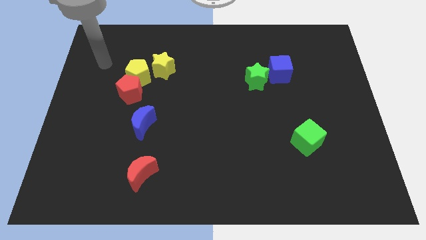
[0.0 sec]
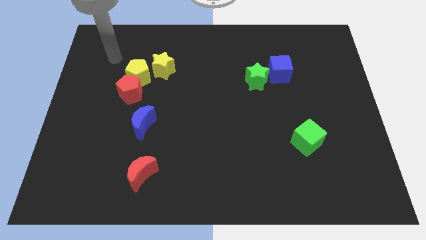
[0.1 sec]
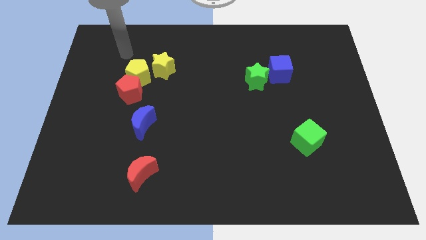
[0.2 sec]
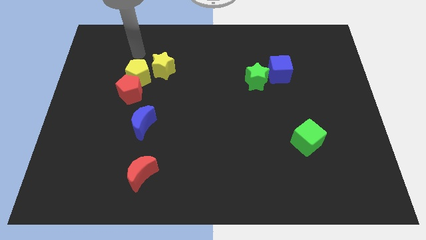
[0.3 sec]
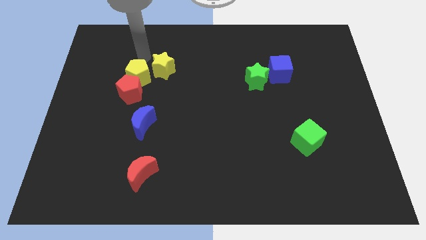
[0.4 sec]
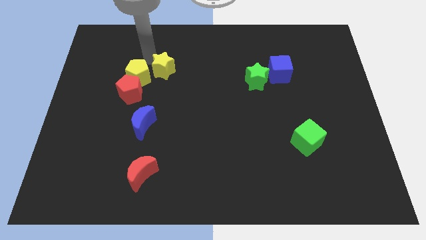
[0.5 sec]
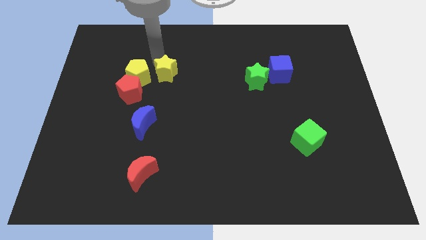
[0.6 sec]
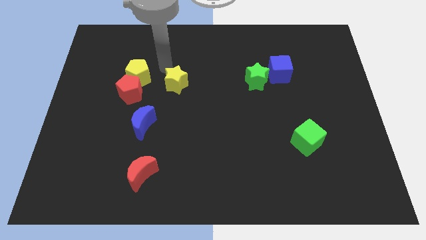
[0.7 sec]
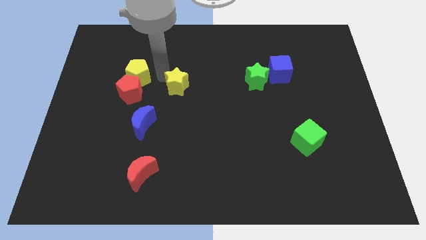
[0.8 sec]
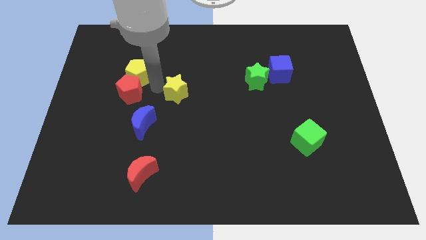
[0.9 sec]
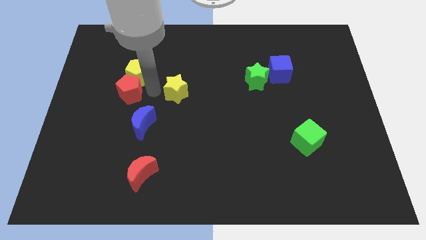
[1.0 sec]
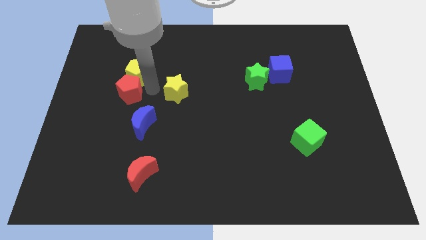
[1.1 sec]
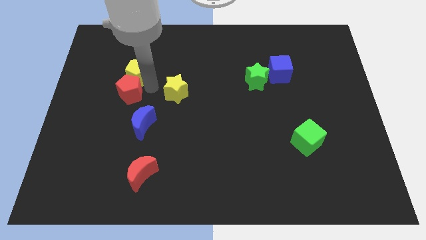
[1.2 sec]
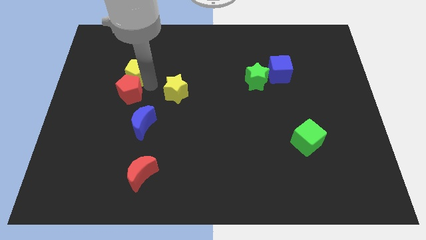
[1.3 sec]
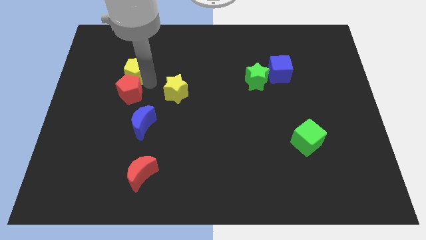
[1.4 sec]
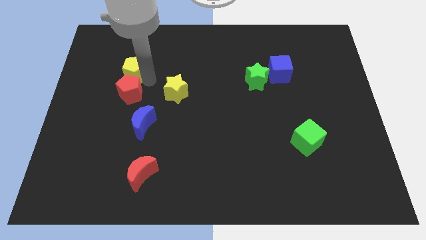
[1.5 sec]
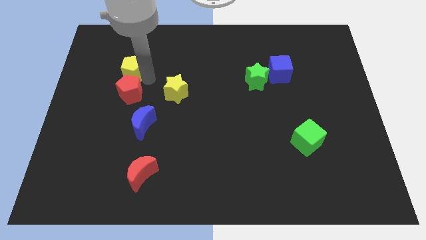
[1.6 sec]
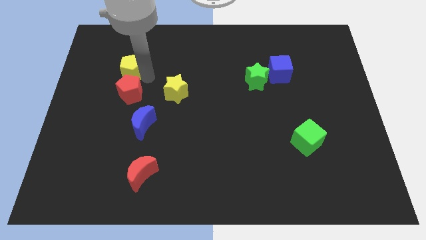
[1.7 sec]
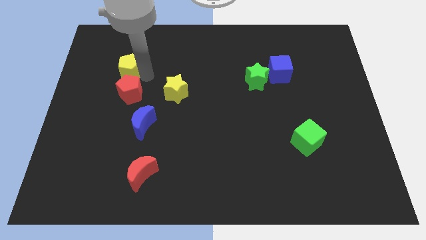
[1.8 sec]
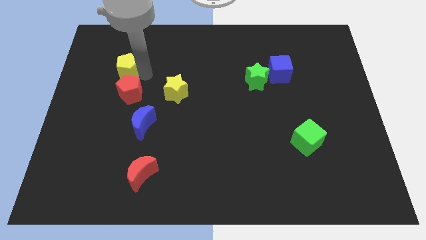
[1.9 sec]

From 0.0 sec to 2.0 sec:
pull the yellow pentagon apart from the red pentagon and yellow star

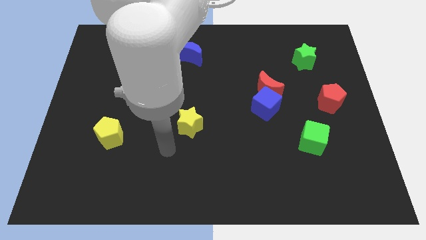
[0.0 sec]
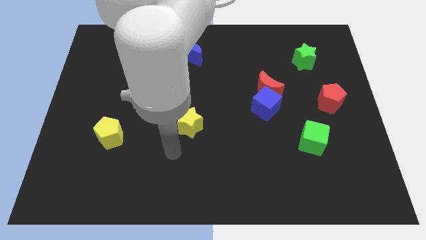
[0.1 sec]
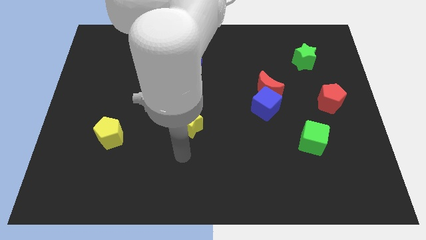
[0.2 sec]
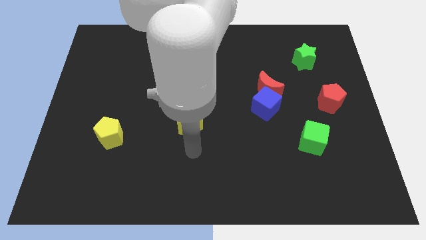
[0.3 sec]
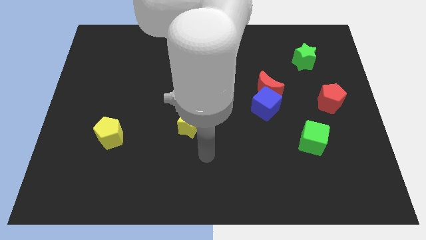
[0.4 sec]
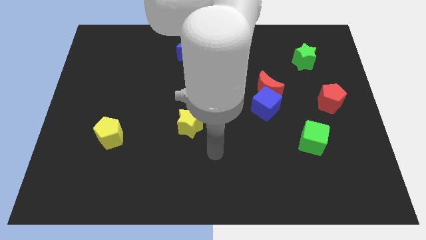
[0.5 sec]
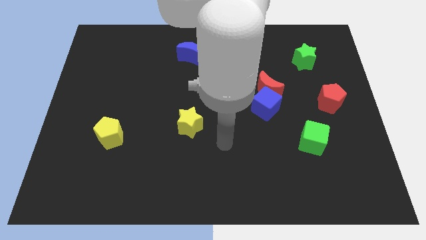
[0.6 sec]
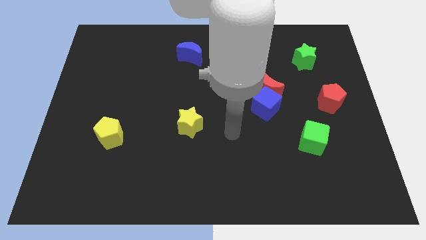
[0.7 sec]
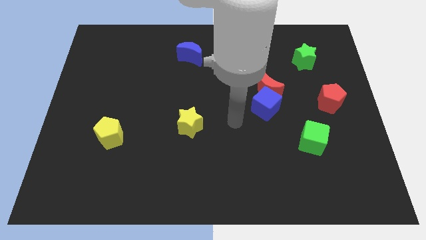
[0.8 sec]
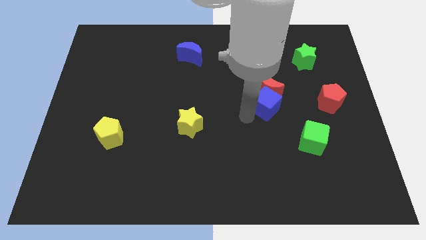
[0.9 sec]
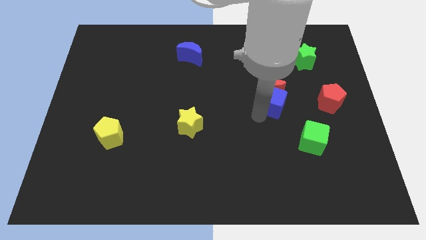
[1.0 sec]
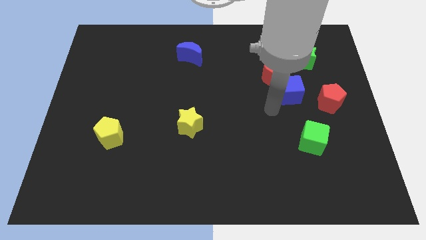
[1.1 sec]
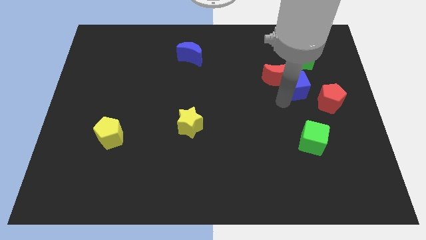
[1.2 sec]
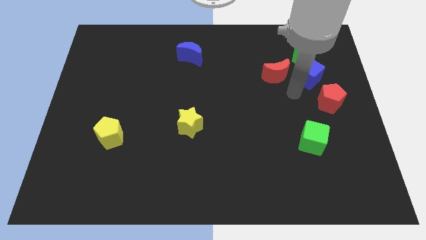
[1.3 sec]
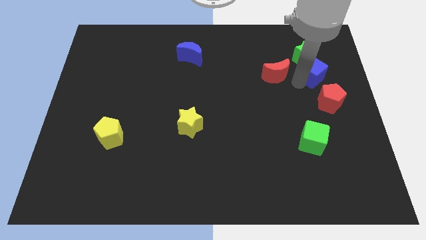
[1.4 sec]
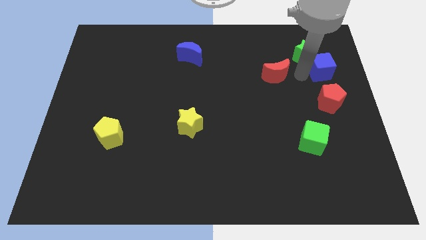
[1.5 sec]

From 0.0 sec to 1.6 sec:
pull the red moon apart from the blue cube

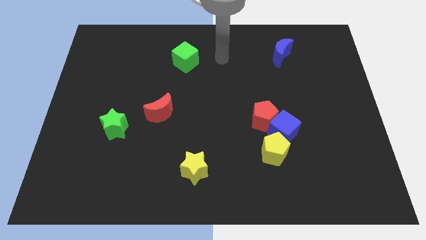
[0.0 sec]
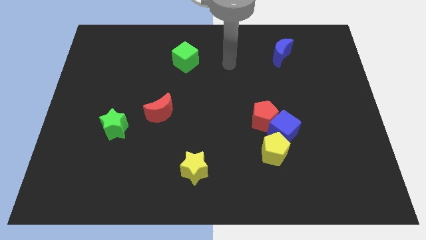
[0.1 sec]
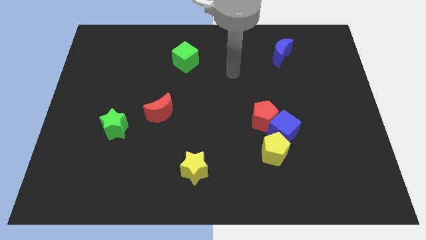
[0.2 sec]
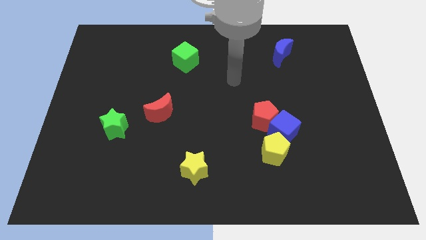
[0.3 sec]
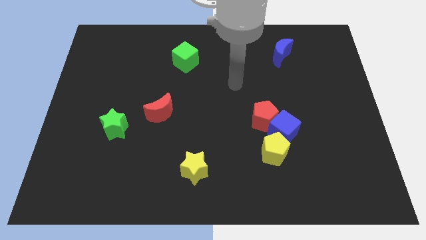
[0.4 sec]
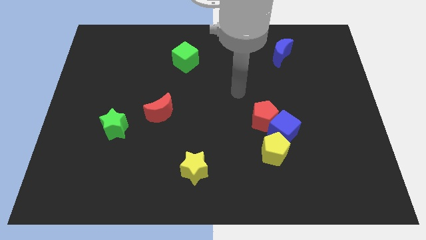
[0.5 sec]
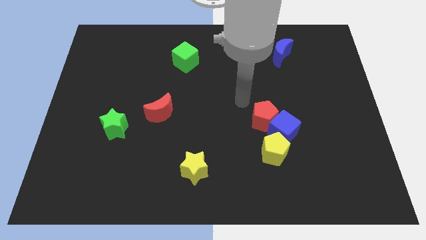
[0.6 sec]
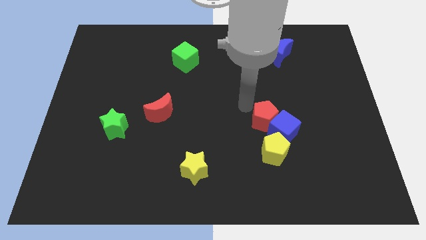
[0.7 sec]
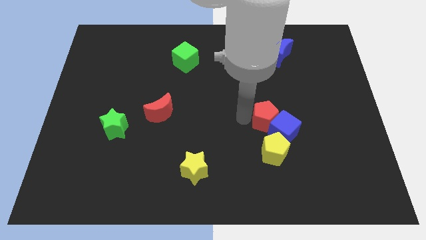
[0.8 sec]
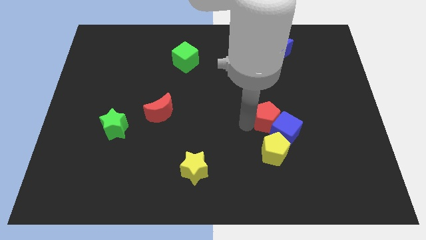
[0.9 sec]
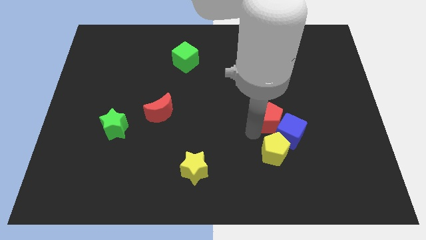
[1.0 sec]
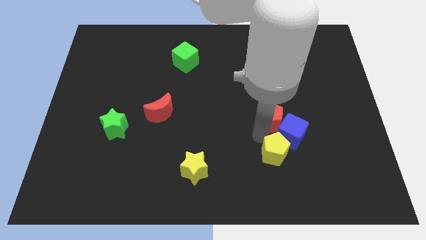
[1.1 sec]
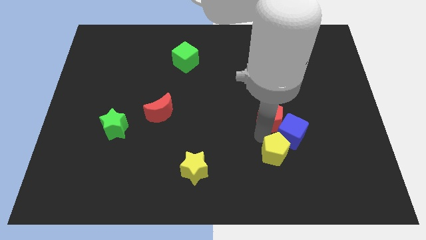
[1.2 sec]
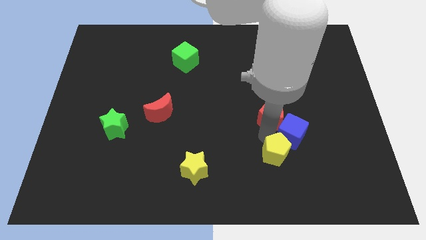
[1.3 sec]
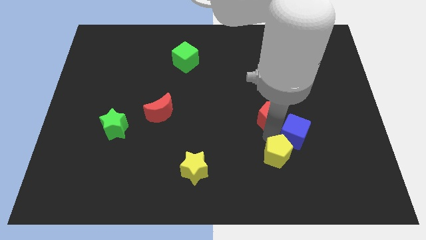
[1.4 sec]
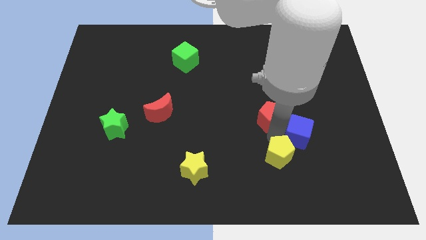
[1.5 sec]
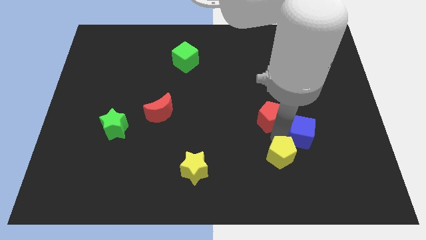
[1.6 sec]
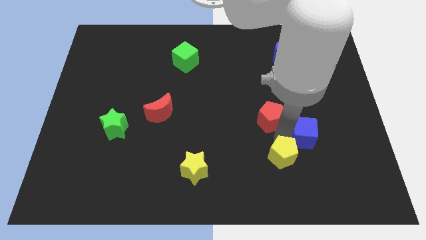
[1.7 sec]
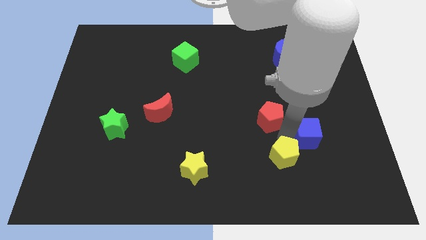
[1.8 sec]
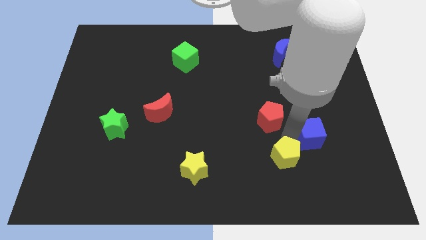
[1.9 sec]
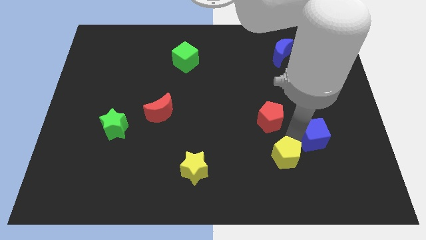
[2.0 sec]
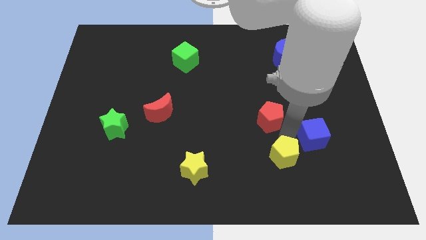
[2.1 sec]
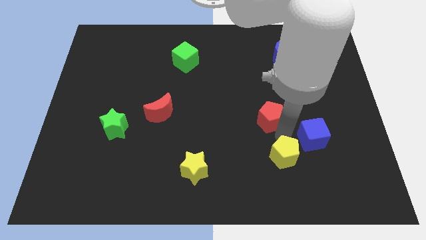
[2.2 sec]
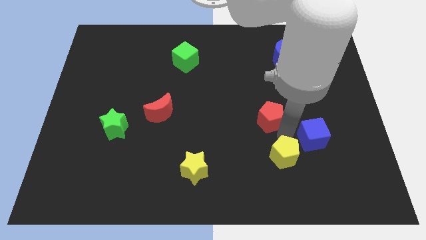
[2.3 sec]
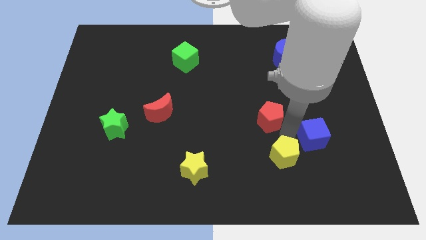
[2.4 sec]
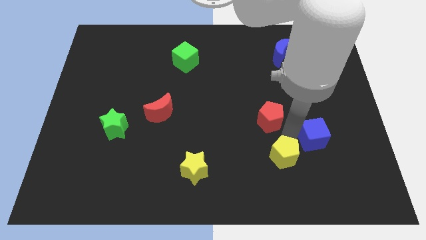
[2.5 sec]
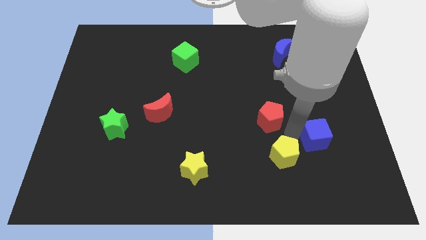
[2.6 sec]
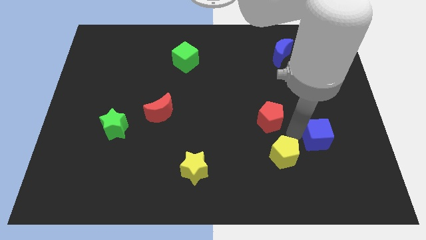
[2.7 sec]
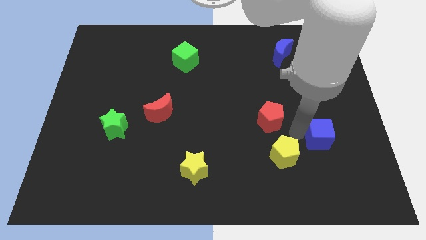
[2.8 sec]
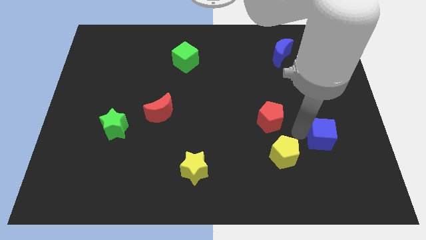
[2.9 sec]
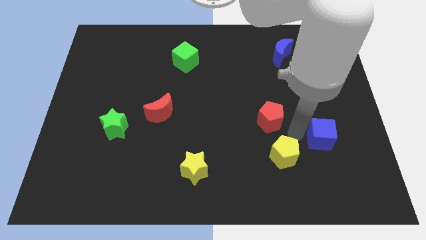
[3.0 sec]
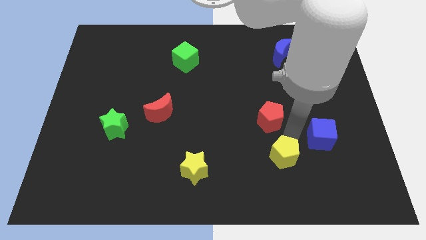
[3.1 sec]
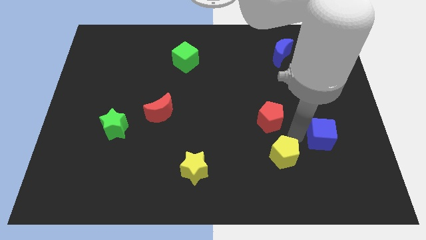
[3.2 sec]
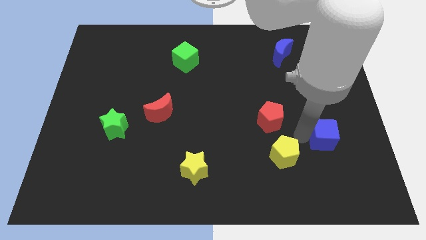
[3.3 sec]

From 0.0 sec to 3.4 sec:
pull the blue cube apart from the red pentagon and yellow pentagon

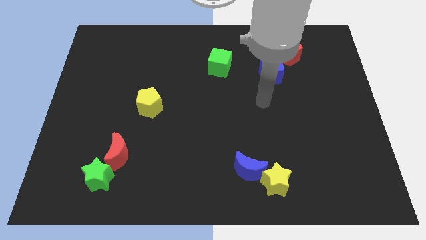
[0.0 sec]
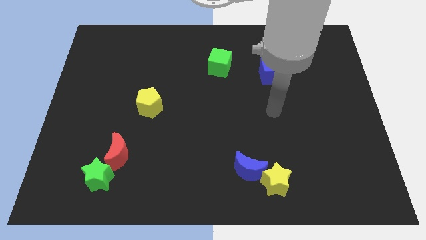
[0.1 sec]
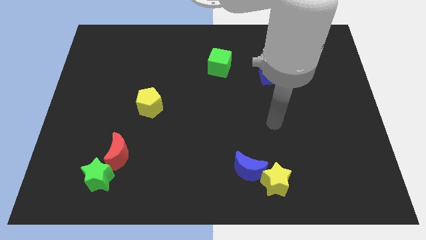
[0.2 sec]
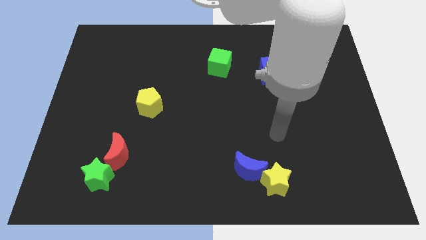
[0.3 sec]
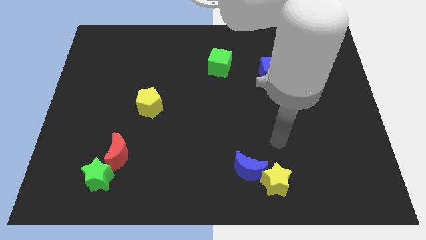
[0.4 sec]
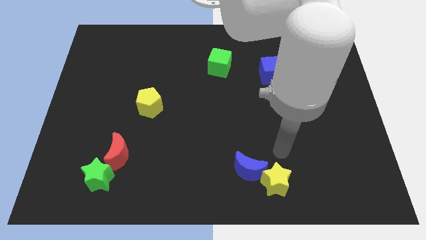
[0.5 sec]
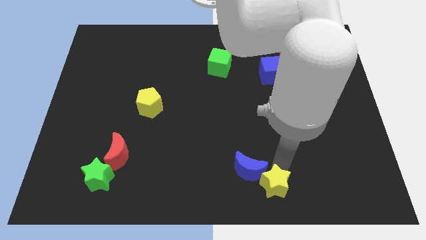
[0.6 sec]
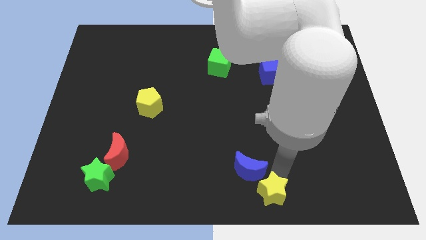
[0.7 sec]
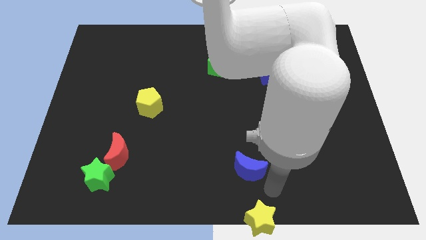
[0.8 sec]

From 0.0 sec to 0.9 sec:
separate the blue moon from the yellow star

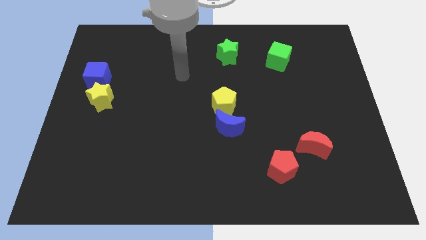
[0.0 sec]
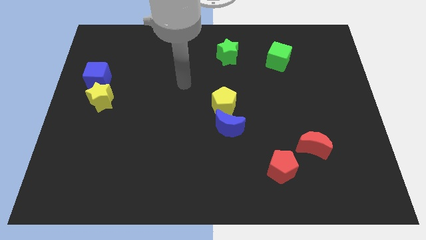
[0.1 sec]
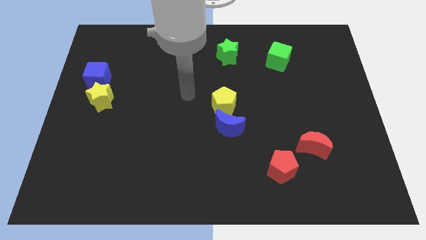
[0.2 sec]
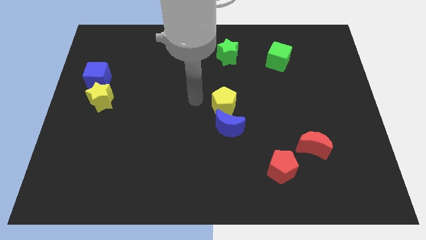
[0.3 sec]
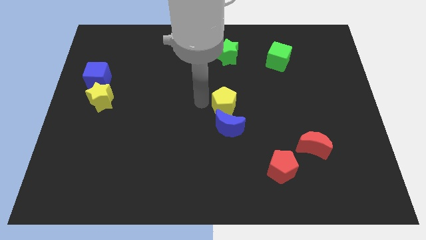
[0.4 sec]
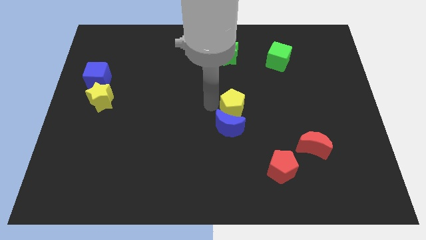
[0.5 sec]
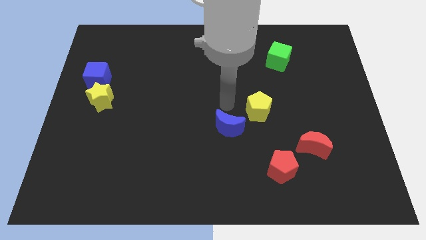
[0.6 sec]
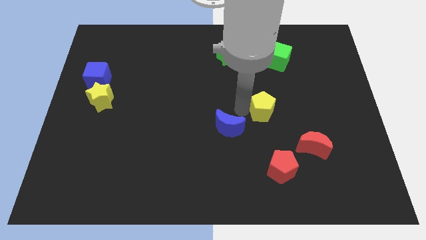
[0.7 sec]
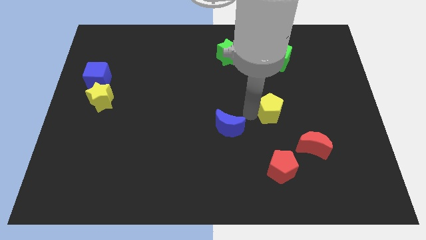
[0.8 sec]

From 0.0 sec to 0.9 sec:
separate the blue moon from the yellow pentagon

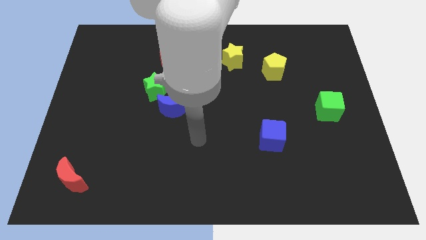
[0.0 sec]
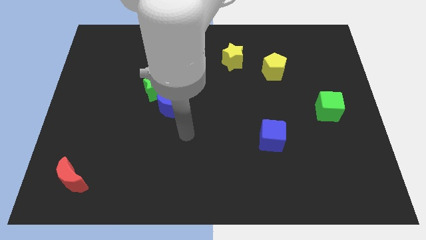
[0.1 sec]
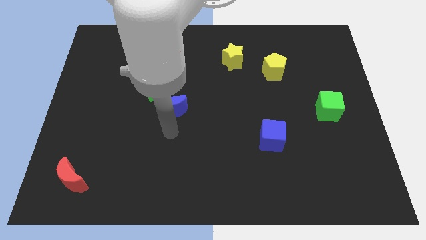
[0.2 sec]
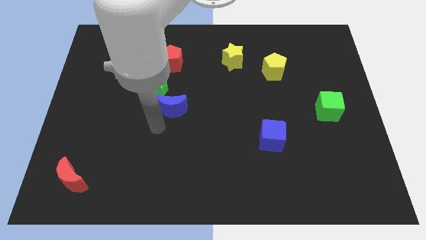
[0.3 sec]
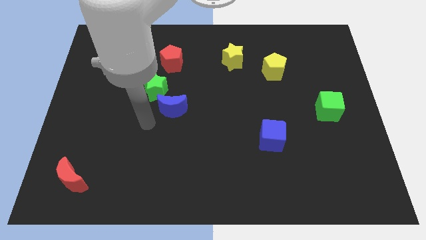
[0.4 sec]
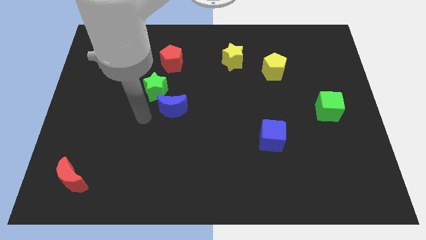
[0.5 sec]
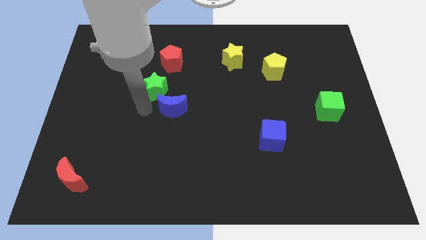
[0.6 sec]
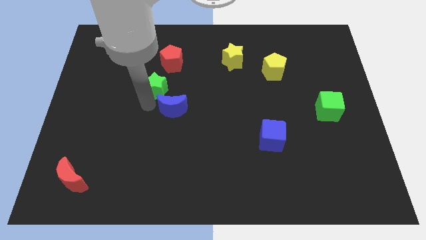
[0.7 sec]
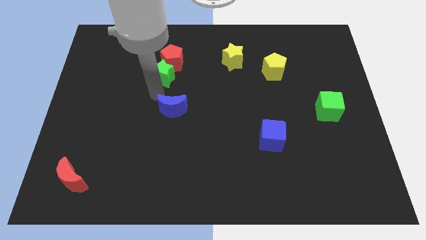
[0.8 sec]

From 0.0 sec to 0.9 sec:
move the blue moon away from the green star
